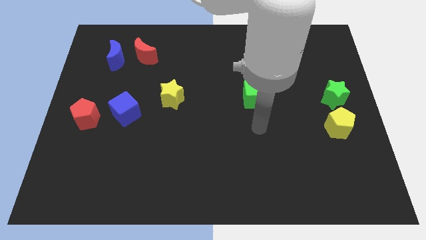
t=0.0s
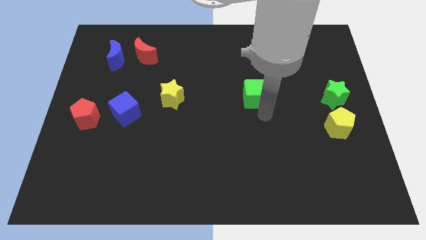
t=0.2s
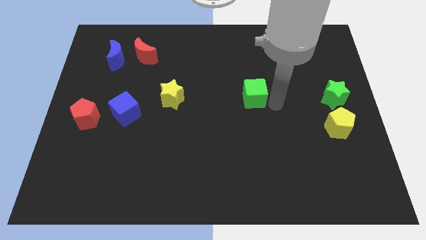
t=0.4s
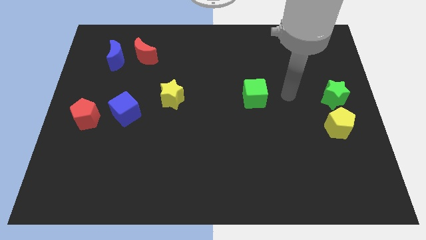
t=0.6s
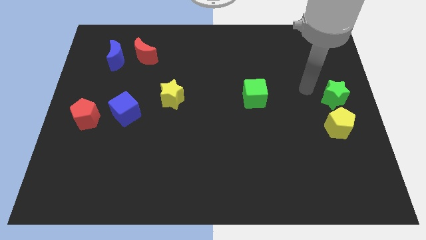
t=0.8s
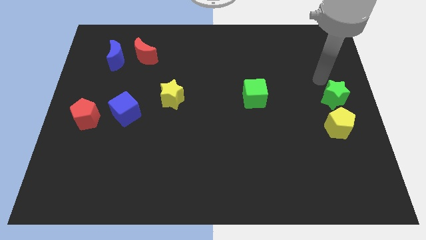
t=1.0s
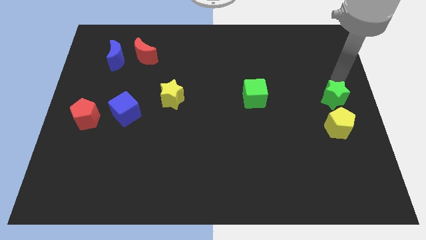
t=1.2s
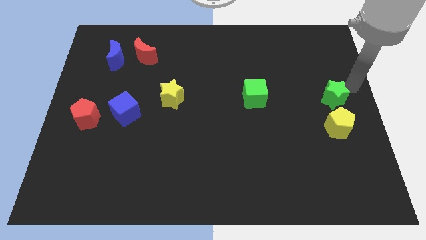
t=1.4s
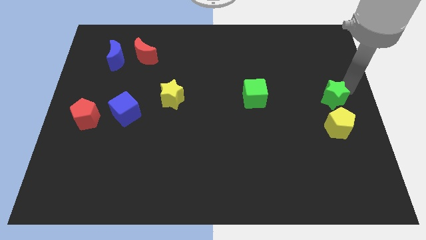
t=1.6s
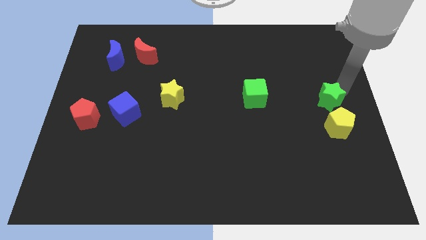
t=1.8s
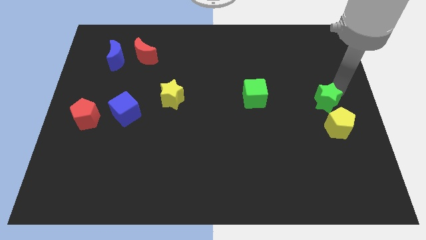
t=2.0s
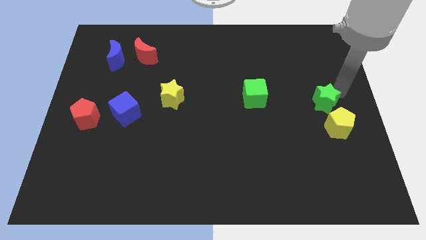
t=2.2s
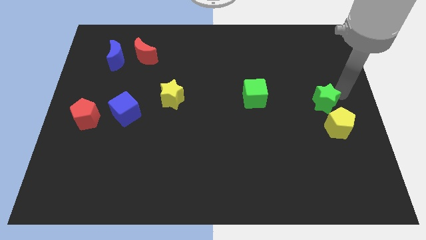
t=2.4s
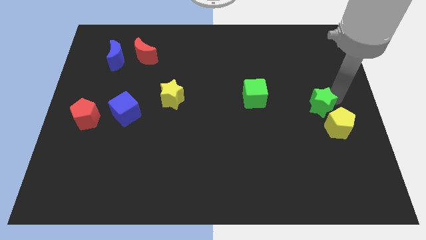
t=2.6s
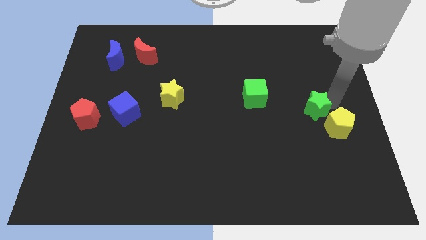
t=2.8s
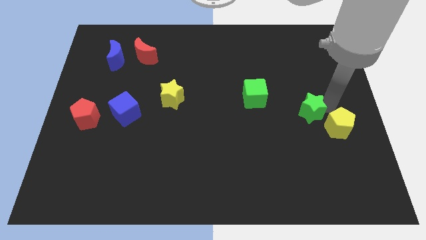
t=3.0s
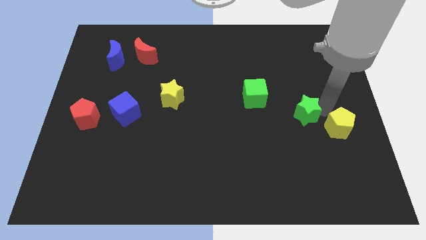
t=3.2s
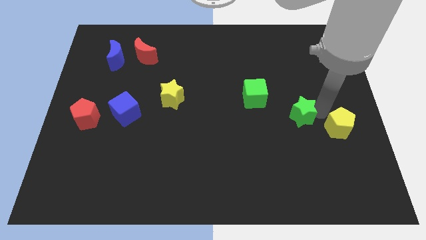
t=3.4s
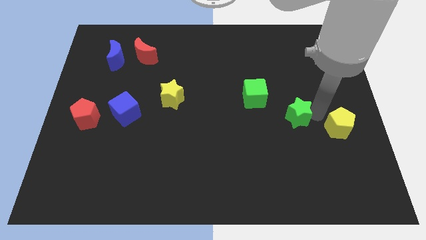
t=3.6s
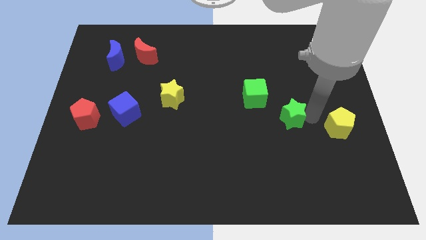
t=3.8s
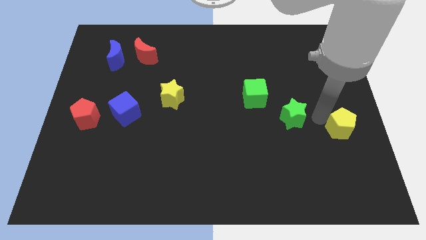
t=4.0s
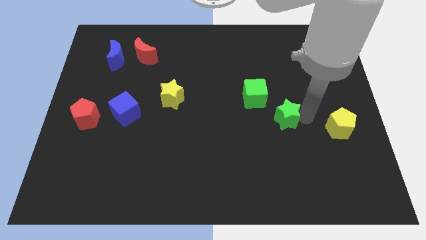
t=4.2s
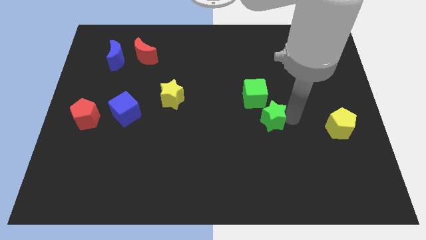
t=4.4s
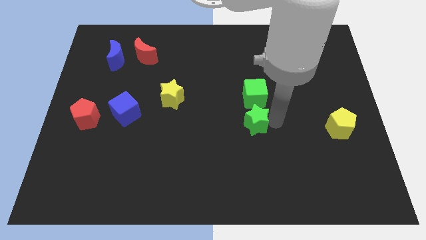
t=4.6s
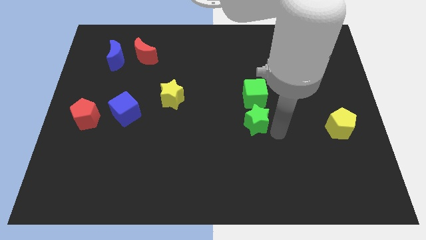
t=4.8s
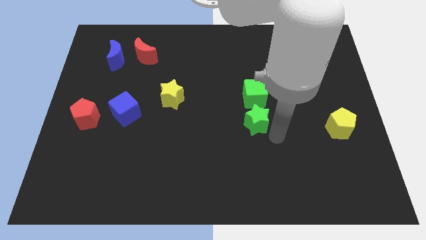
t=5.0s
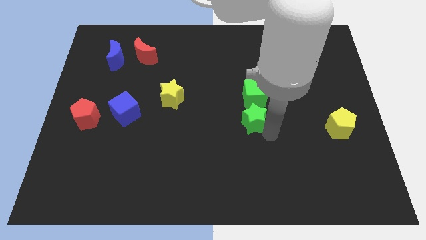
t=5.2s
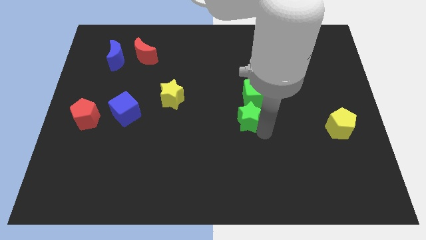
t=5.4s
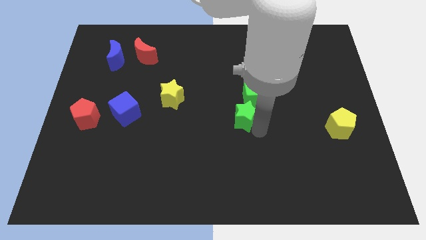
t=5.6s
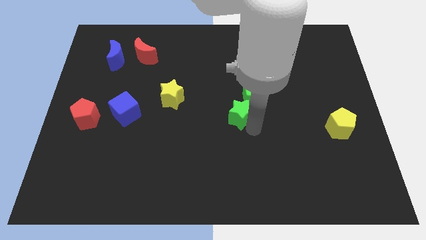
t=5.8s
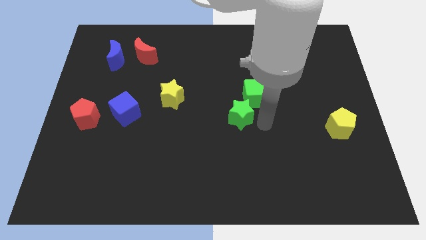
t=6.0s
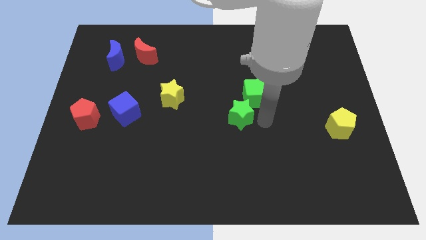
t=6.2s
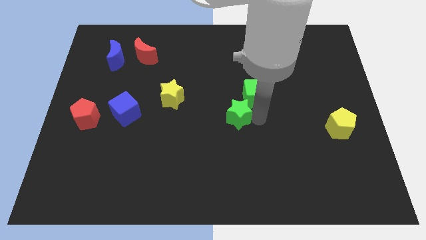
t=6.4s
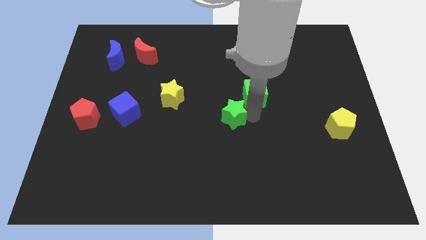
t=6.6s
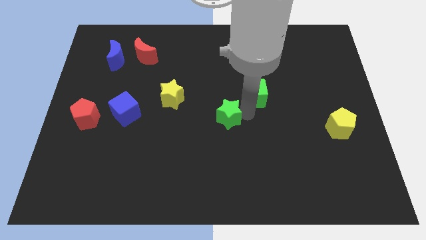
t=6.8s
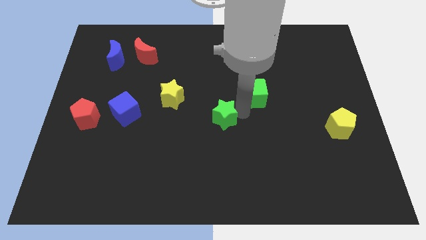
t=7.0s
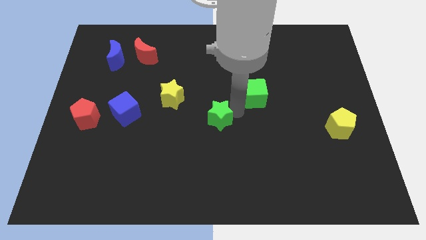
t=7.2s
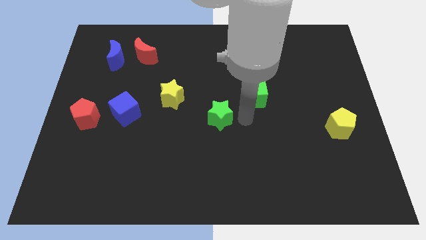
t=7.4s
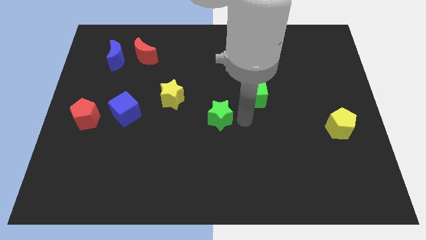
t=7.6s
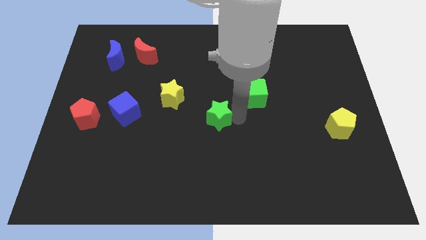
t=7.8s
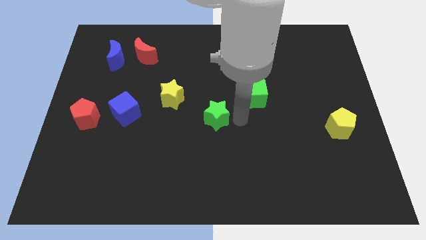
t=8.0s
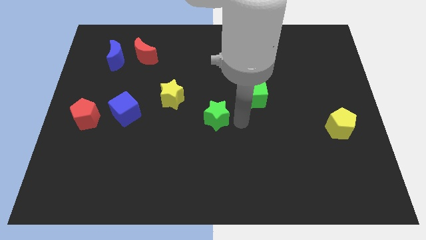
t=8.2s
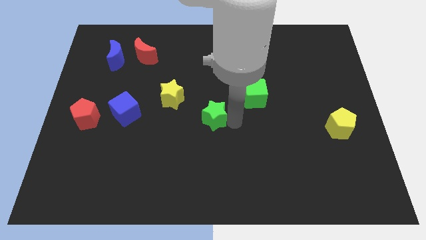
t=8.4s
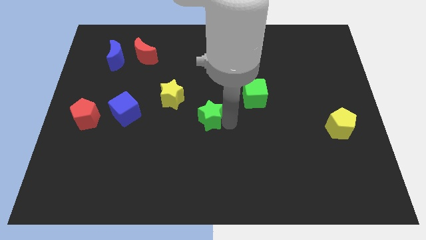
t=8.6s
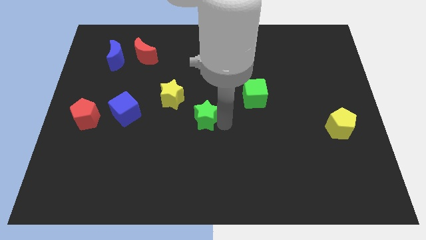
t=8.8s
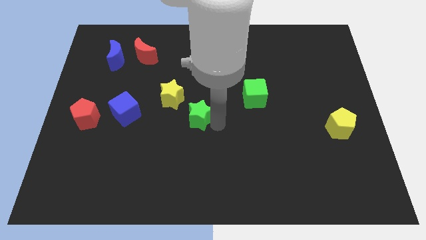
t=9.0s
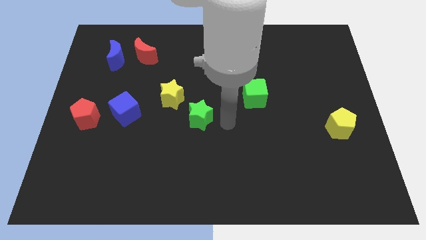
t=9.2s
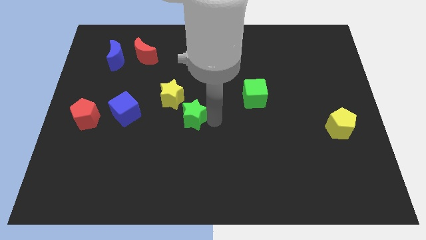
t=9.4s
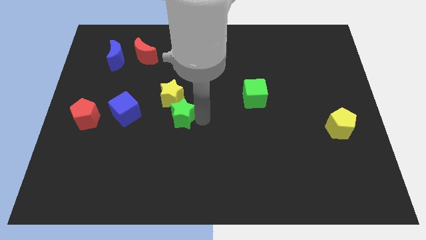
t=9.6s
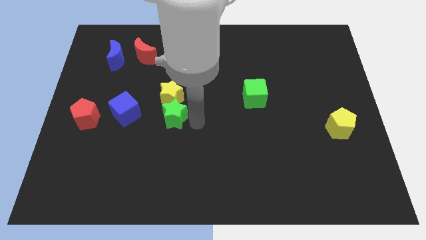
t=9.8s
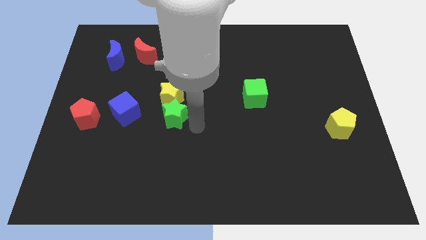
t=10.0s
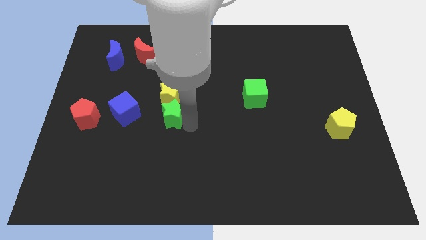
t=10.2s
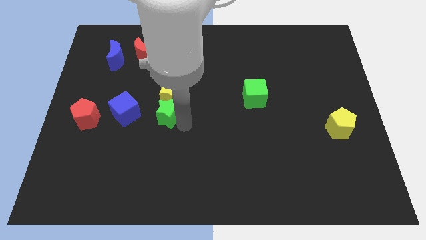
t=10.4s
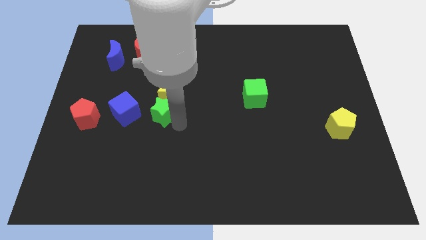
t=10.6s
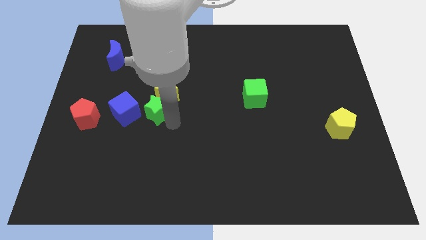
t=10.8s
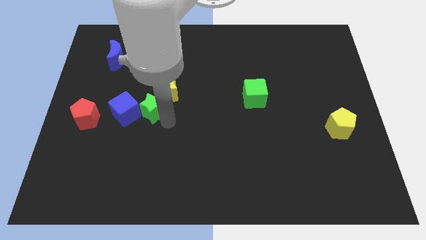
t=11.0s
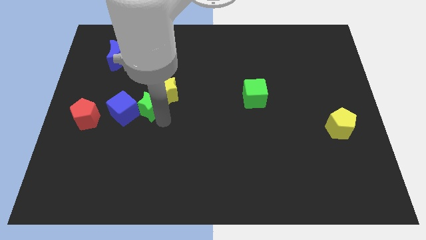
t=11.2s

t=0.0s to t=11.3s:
push the green star just left of the yellow star
